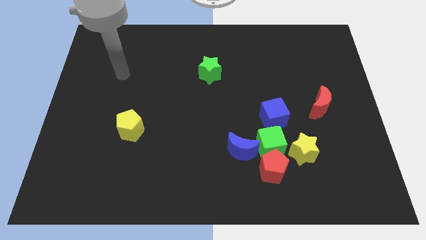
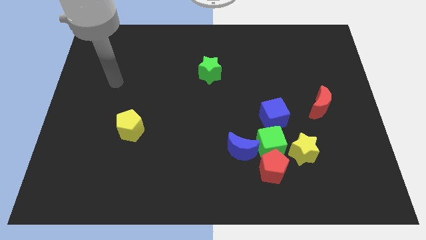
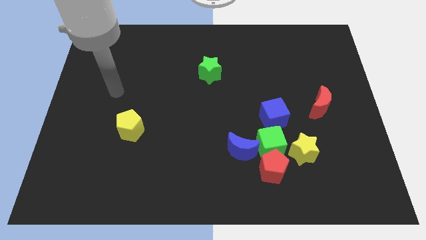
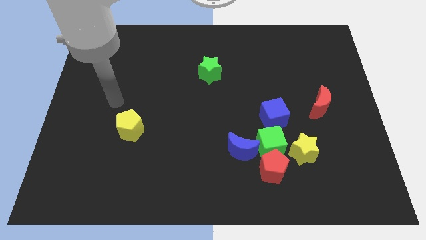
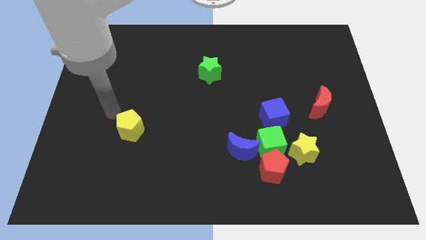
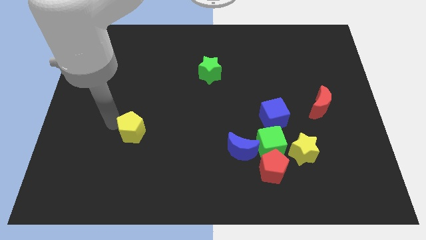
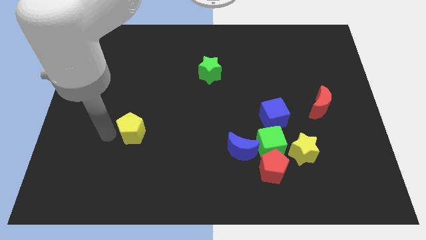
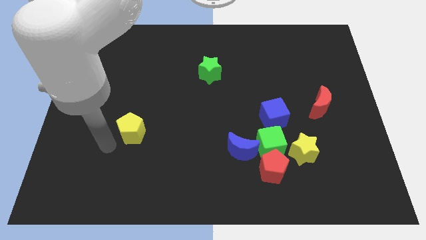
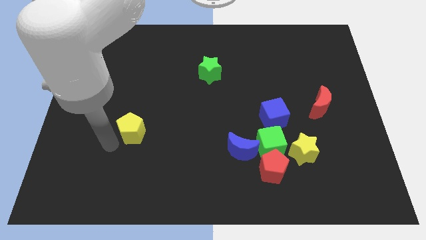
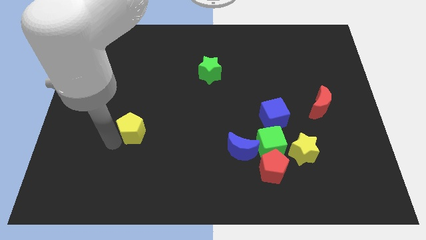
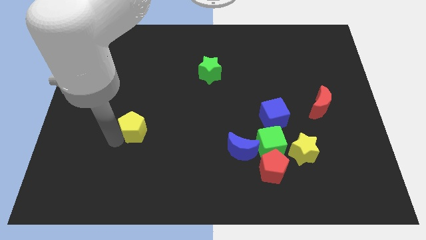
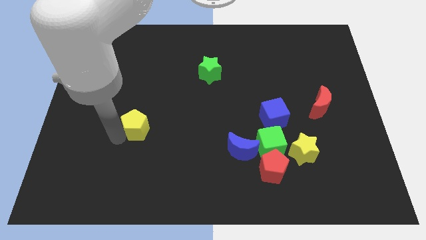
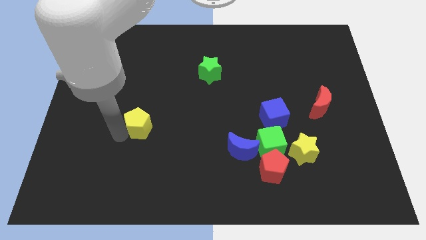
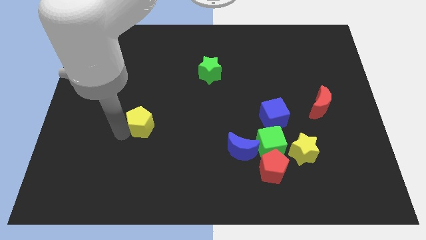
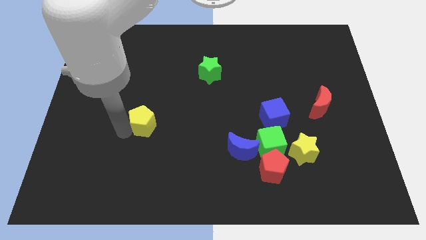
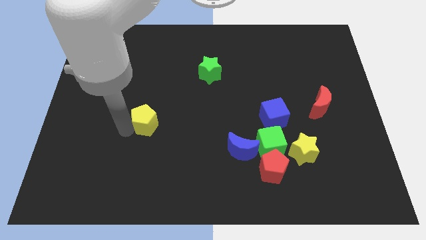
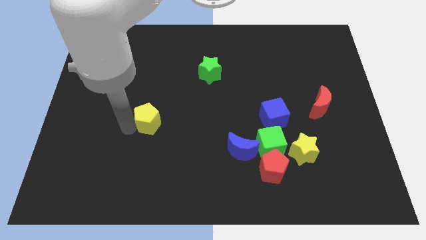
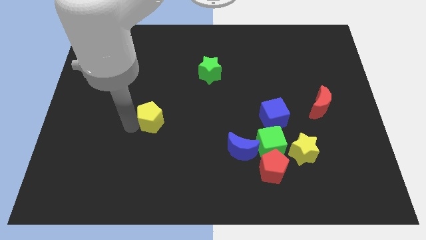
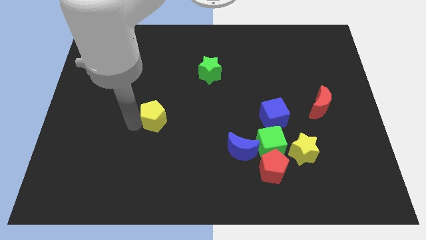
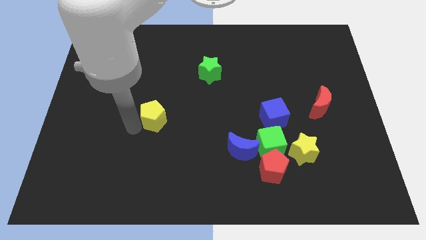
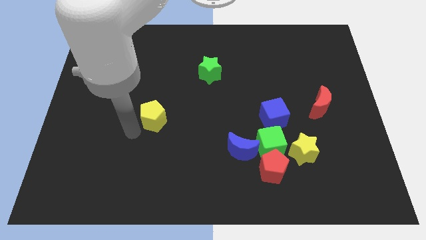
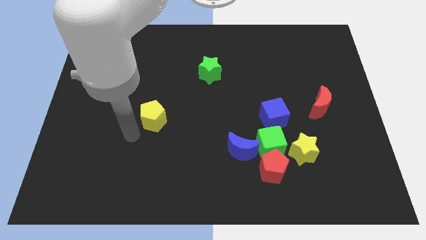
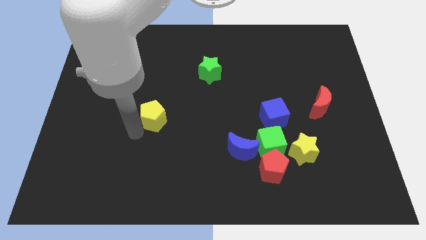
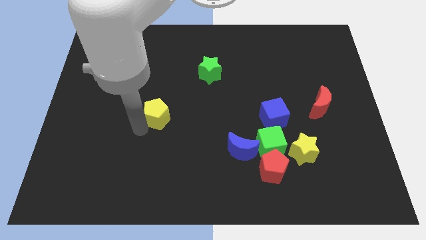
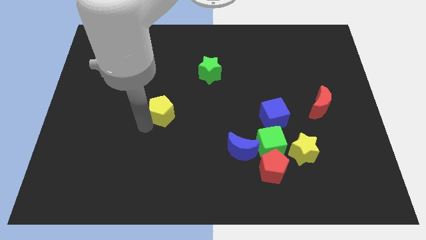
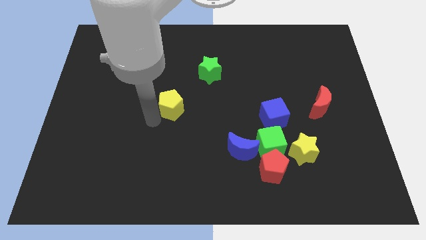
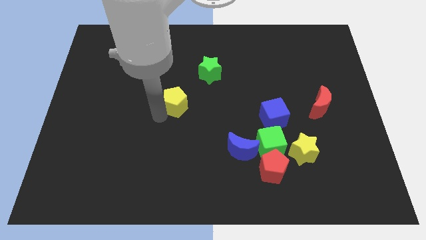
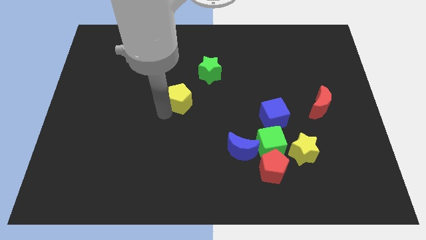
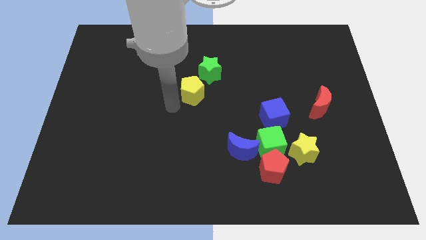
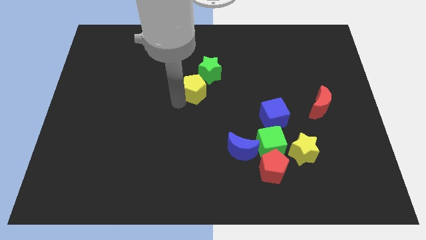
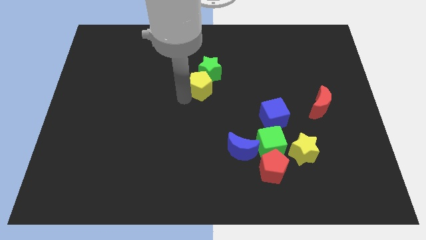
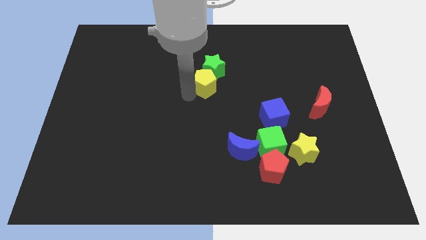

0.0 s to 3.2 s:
slide the yellow pentagon diagonally up and to the right

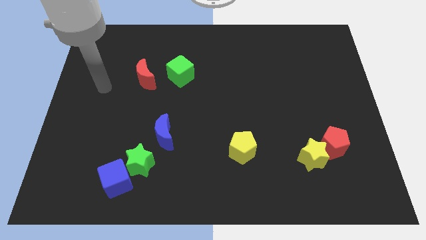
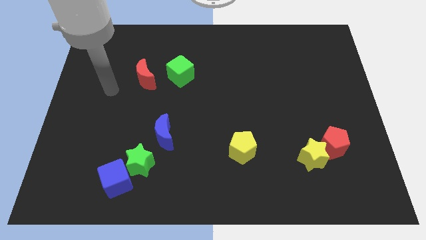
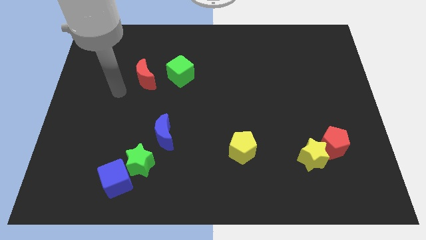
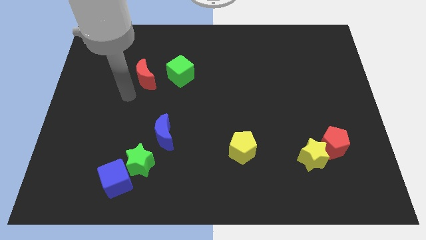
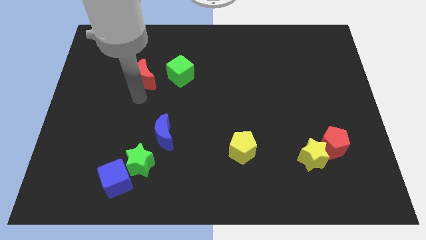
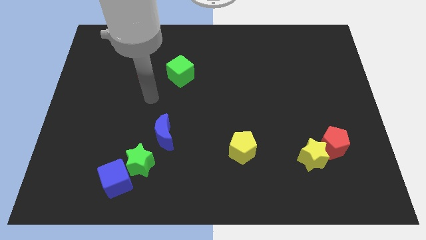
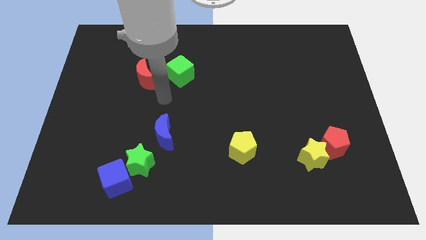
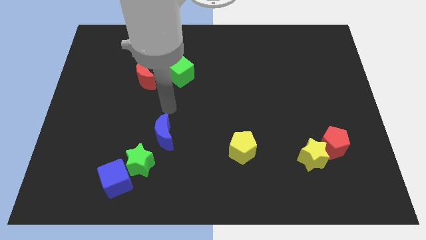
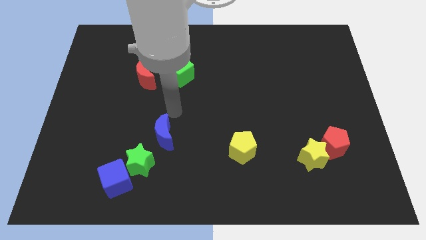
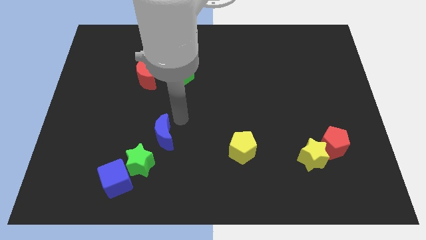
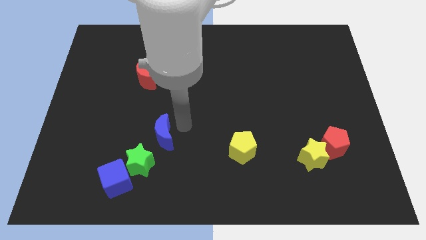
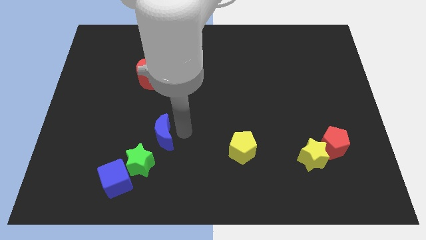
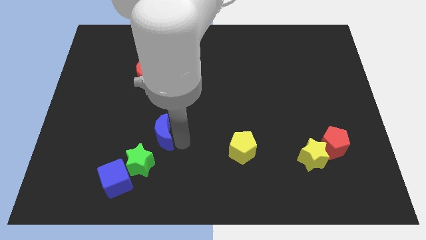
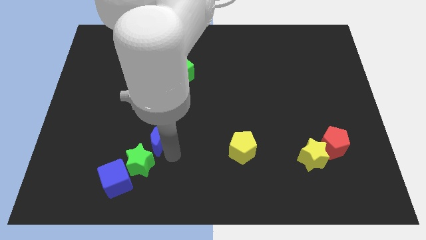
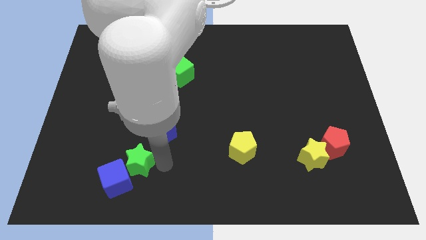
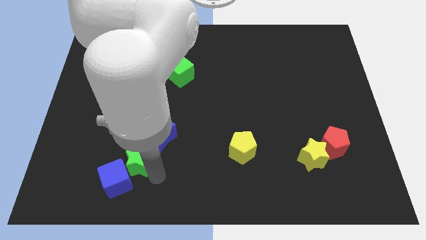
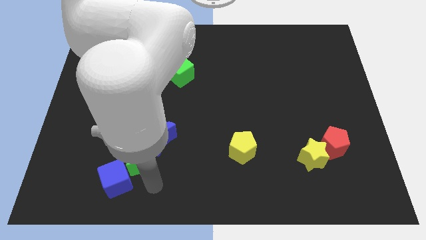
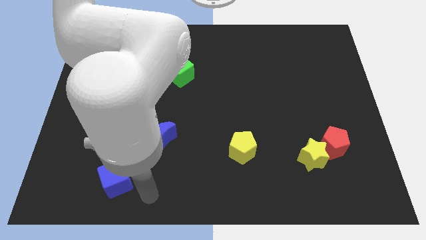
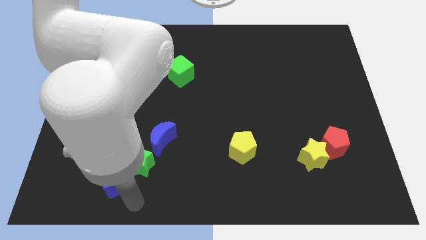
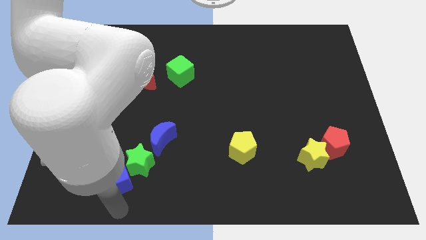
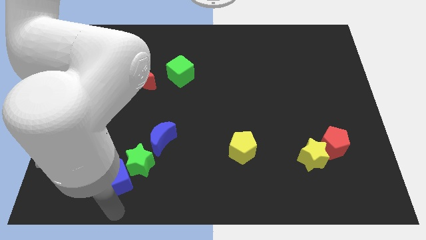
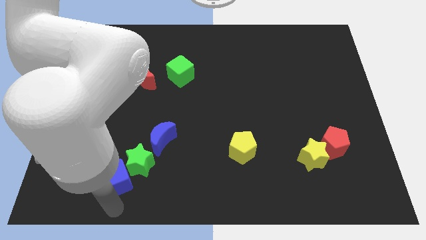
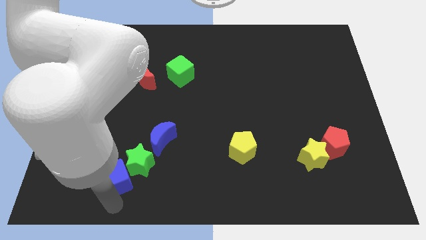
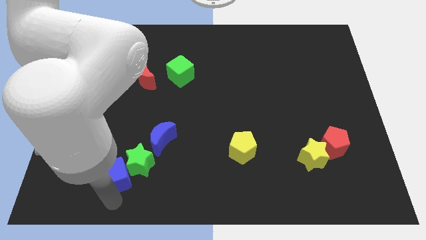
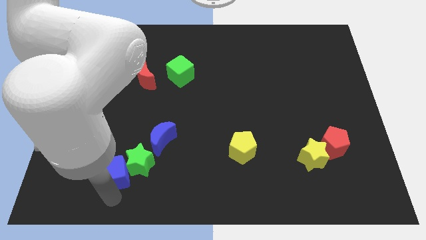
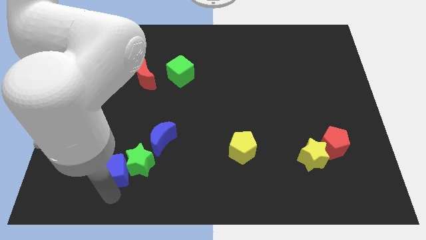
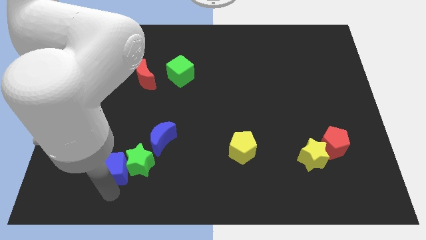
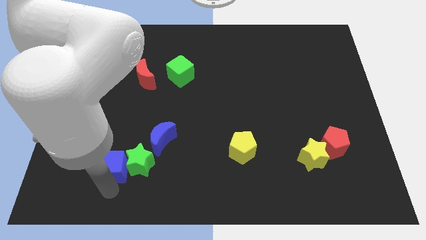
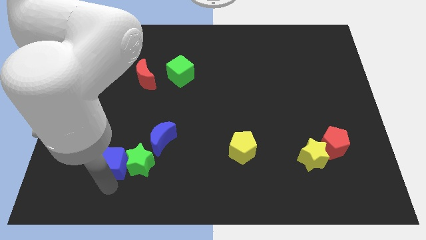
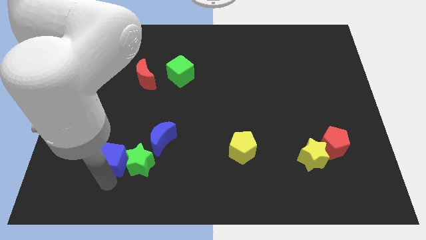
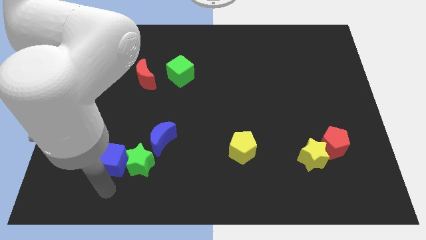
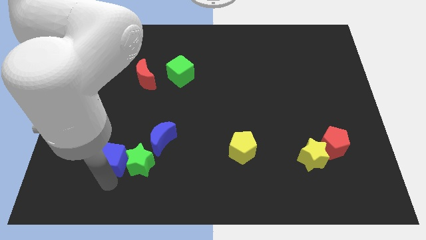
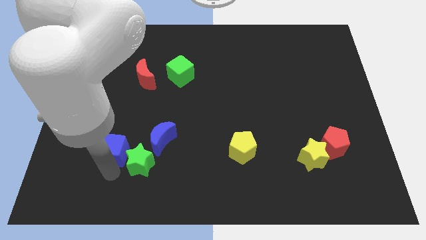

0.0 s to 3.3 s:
slide the blue cube a little bit up

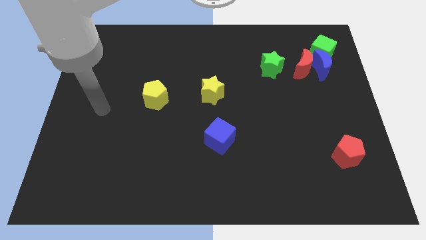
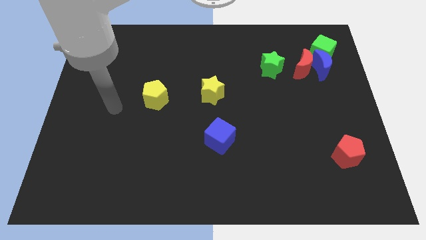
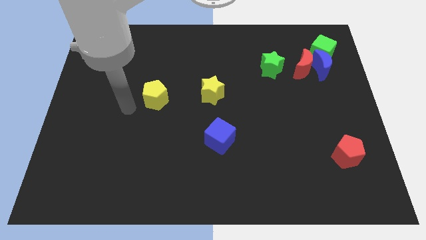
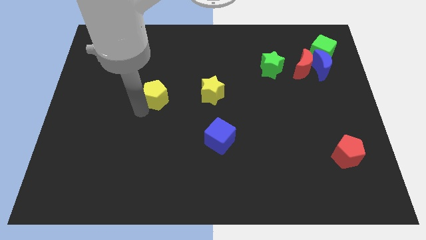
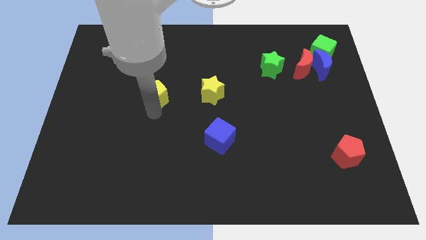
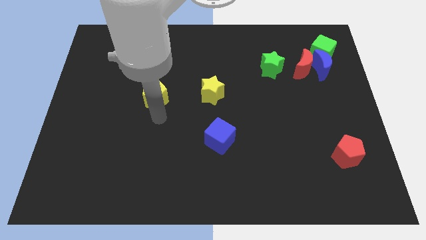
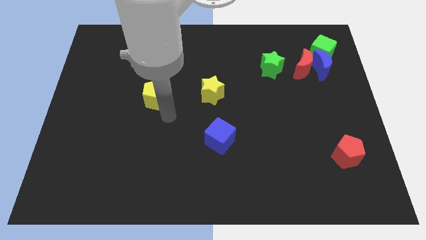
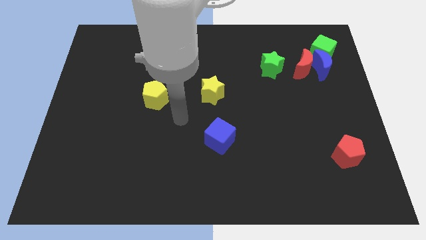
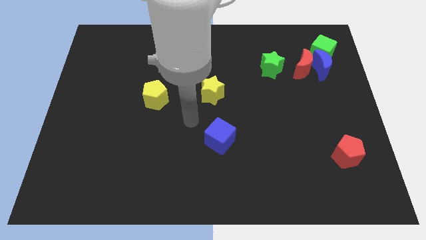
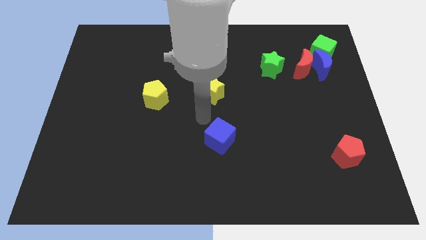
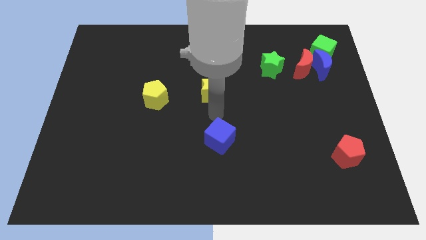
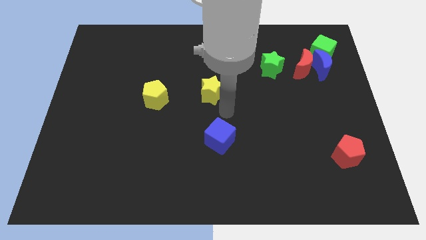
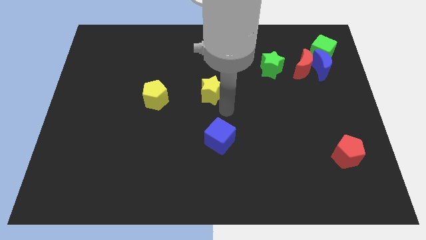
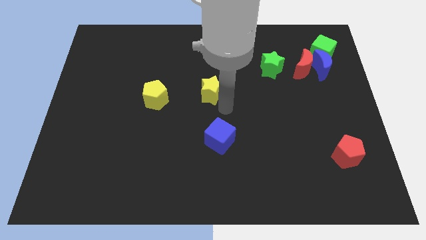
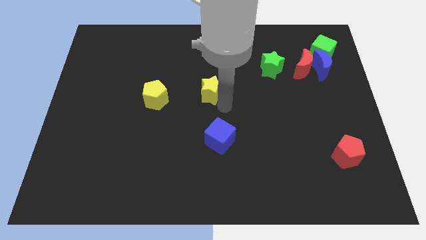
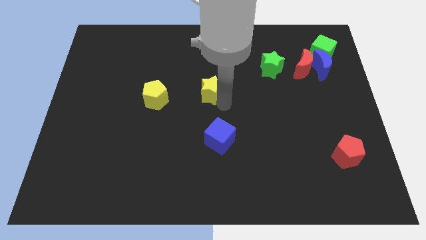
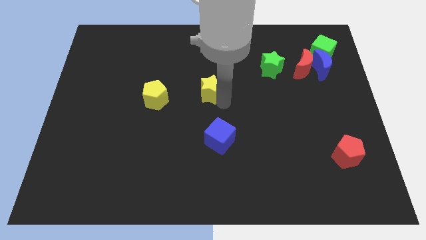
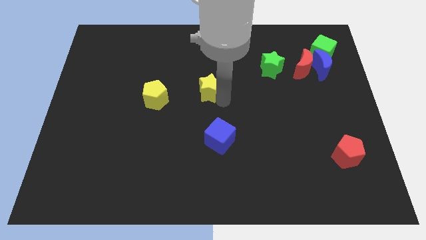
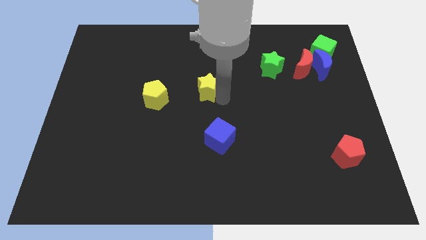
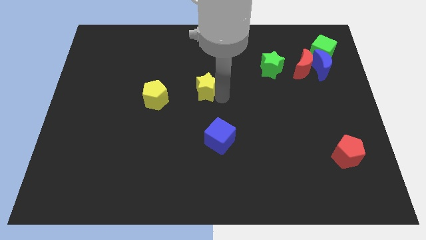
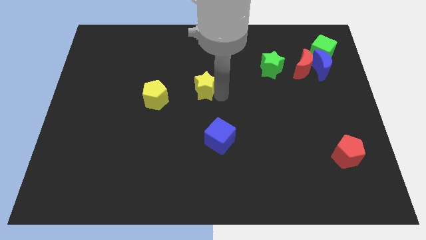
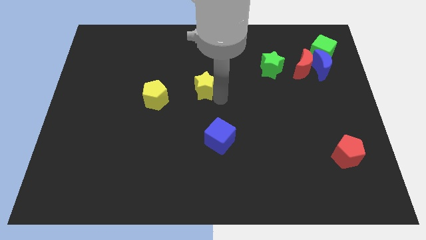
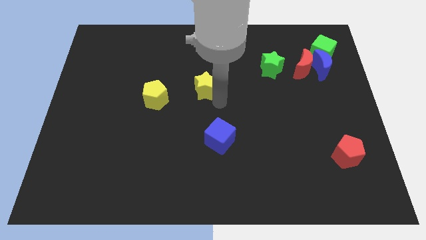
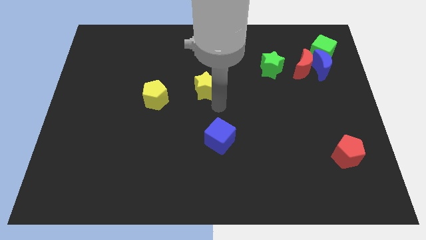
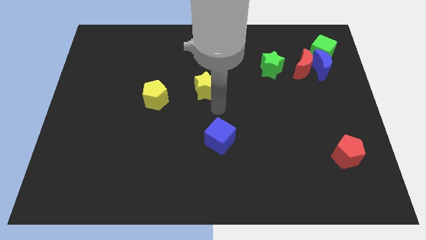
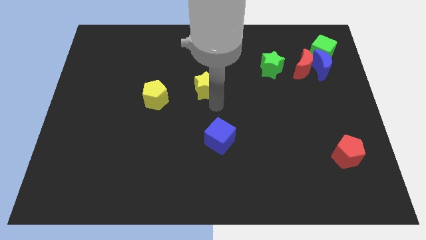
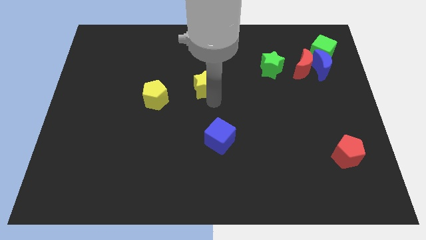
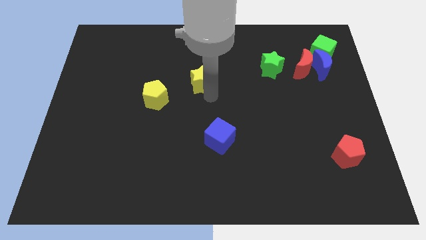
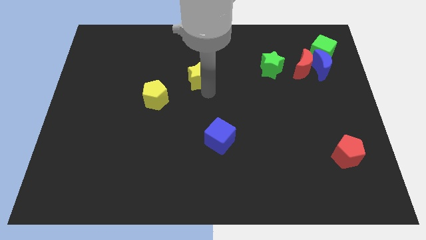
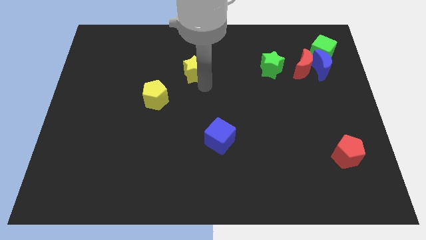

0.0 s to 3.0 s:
push the yellow star upwards and to the left diagonally a little bit
